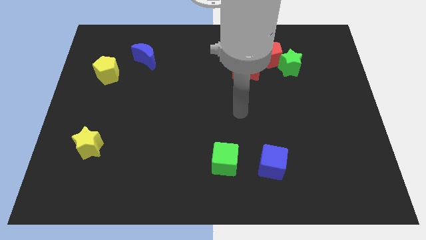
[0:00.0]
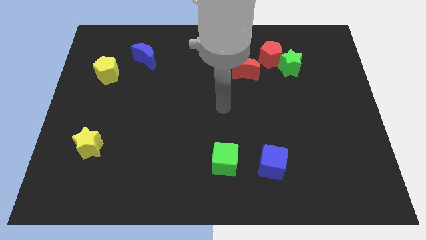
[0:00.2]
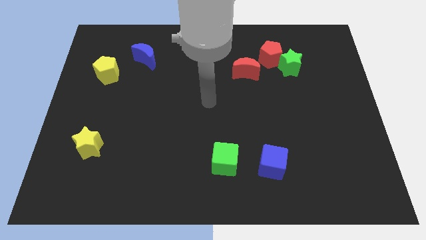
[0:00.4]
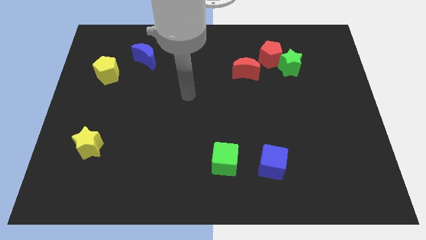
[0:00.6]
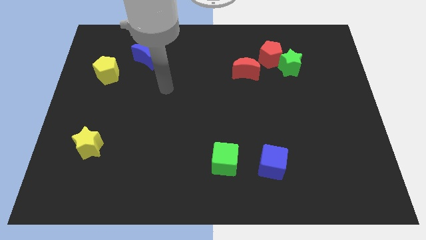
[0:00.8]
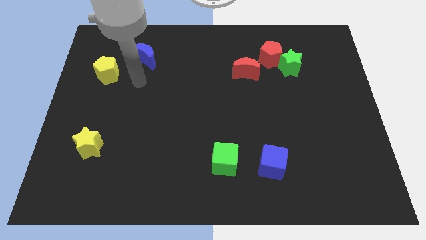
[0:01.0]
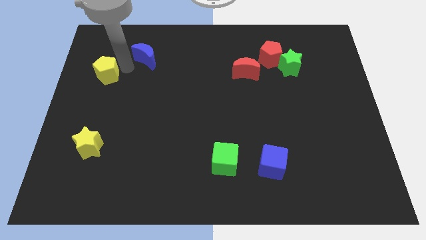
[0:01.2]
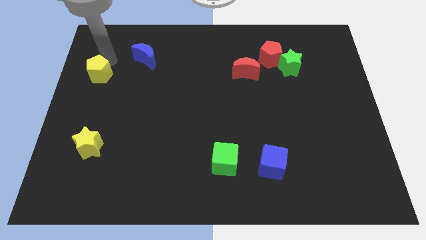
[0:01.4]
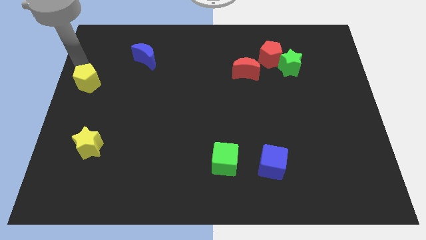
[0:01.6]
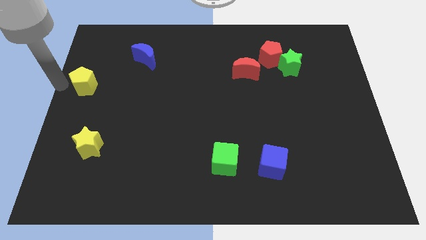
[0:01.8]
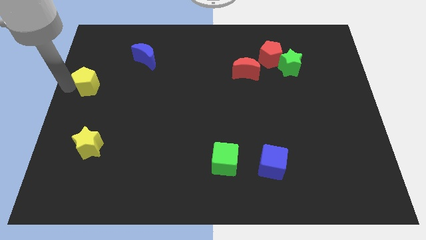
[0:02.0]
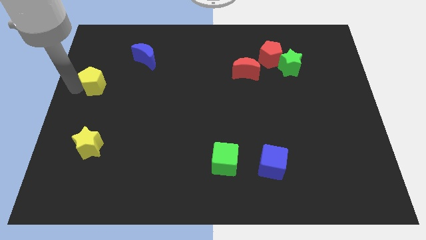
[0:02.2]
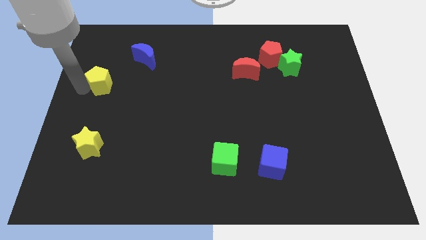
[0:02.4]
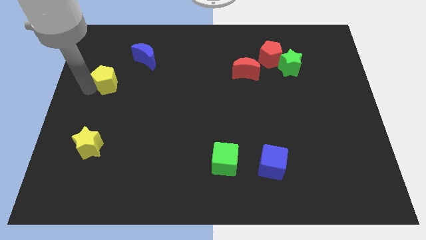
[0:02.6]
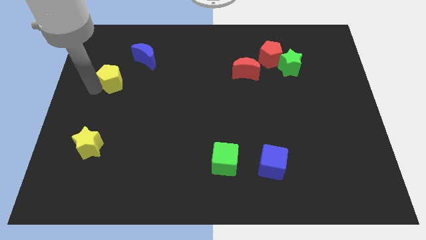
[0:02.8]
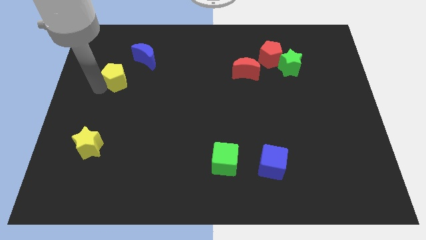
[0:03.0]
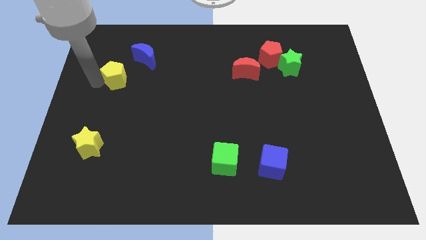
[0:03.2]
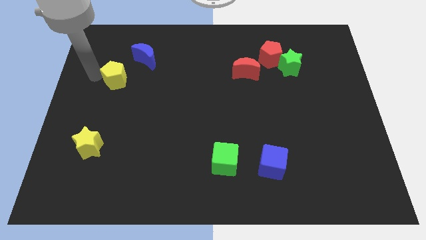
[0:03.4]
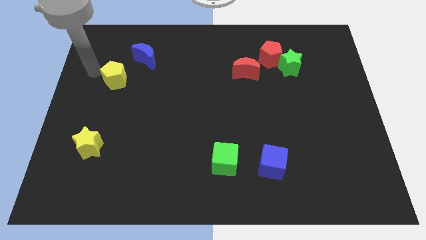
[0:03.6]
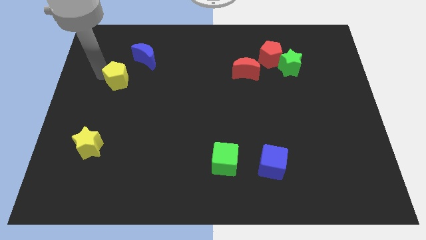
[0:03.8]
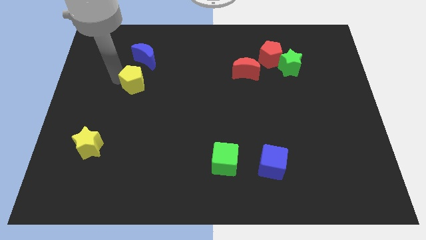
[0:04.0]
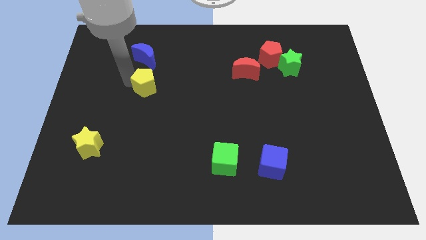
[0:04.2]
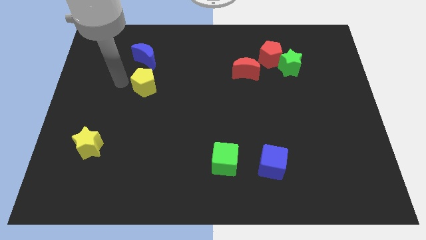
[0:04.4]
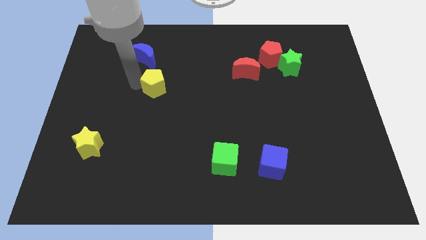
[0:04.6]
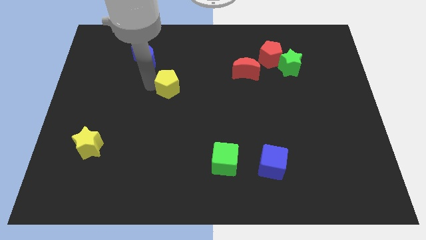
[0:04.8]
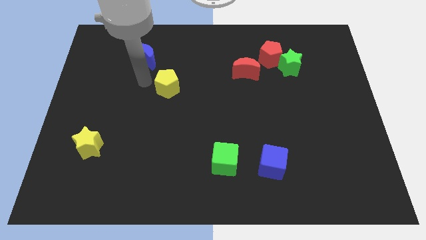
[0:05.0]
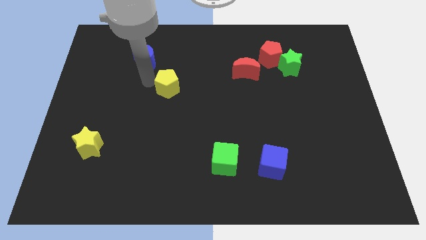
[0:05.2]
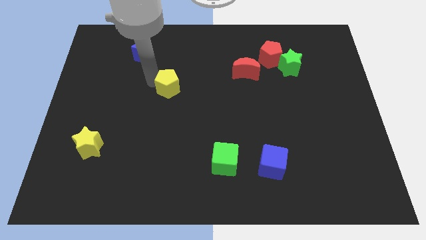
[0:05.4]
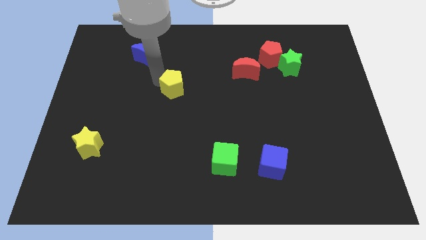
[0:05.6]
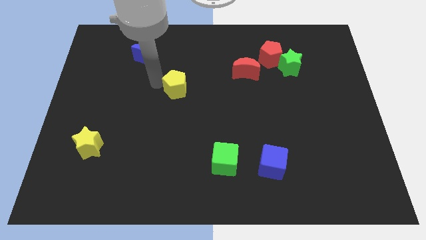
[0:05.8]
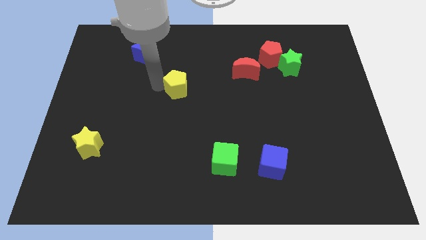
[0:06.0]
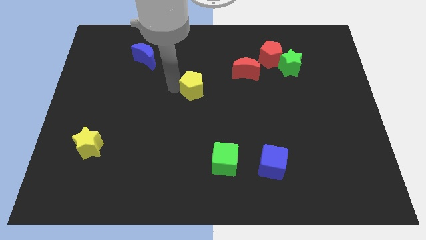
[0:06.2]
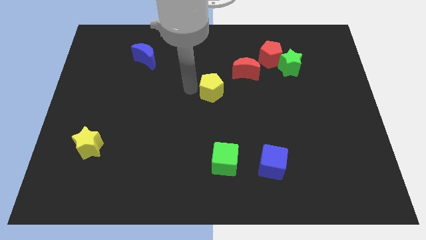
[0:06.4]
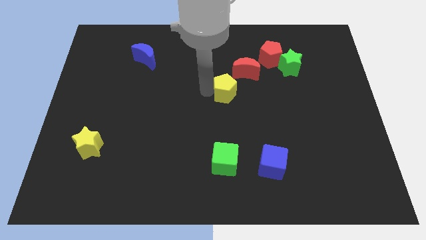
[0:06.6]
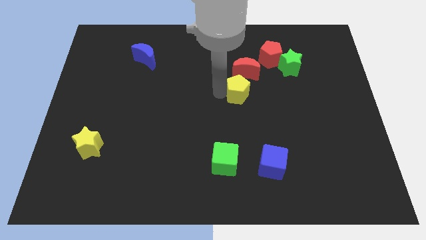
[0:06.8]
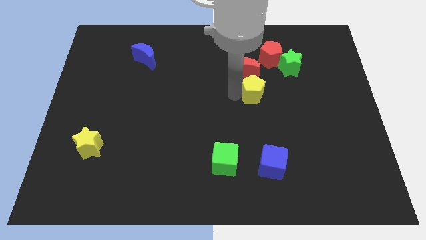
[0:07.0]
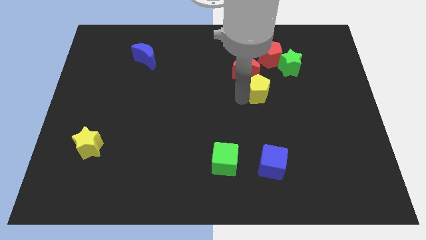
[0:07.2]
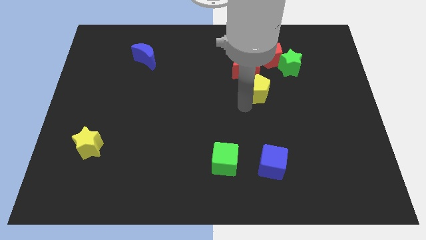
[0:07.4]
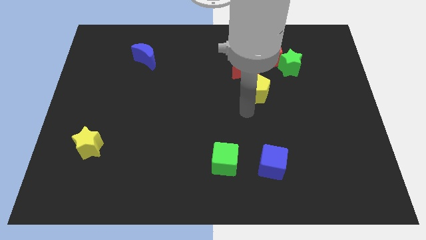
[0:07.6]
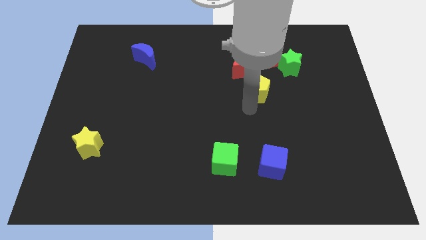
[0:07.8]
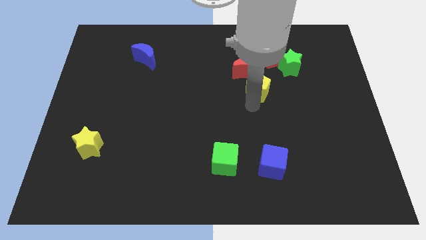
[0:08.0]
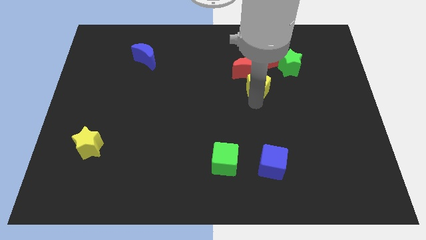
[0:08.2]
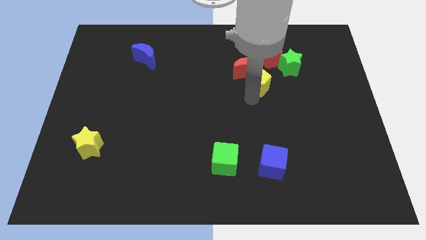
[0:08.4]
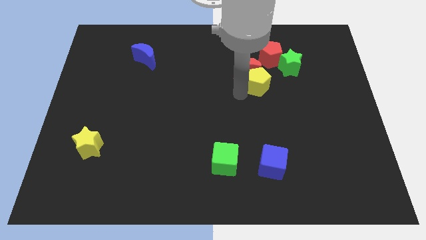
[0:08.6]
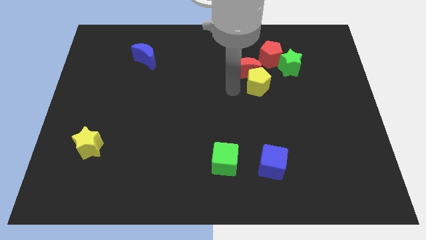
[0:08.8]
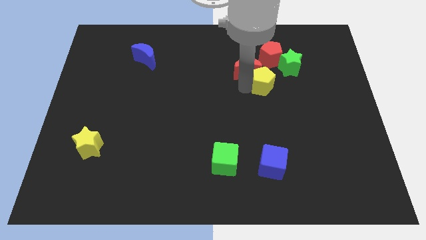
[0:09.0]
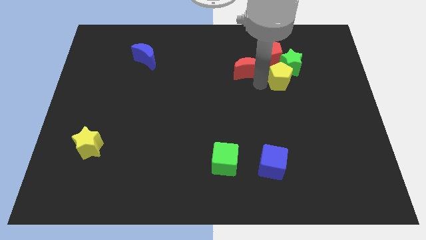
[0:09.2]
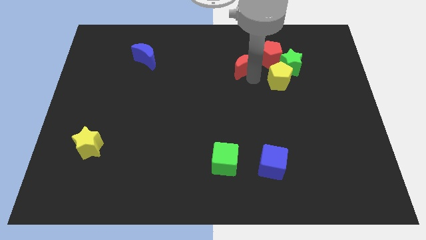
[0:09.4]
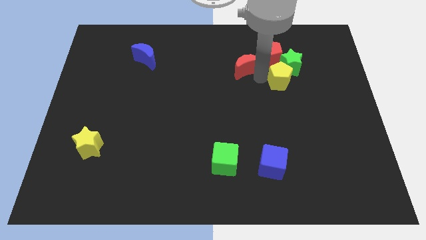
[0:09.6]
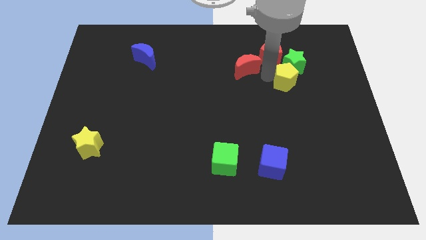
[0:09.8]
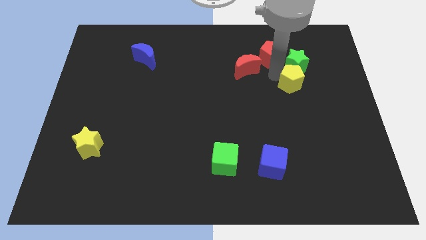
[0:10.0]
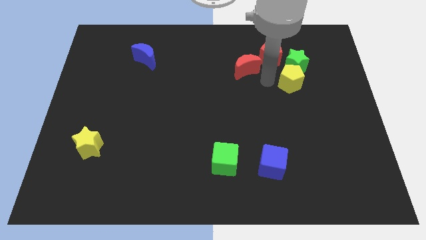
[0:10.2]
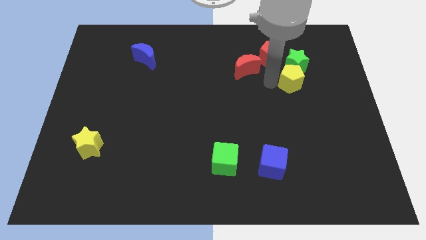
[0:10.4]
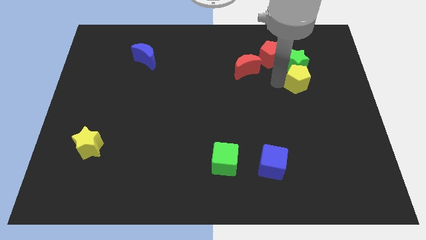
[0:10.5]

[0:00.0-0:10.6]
push the yellow pentagon to the bottom right of the green star

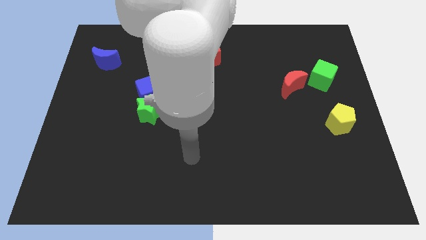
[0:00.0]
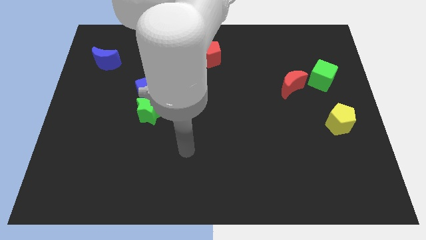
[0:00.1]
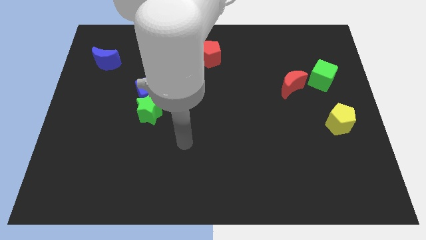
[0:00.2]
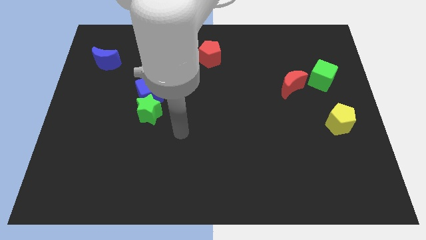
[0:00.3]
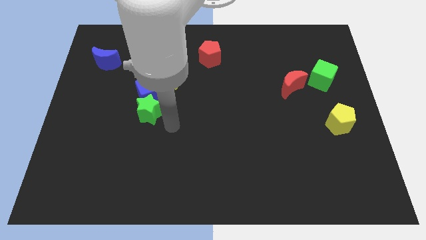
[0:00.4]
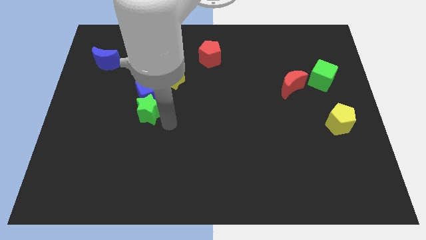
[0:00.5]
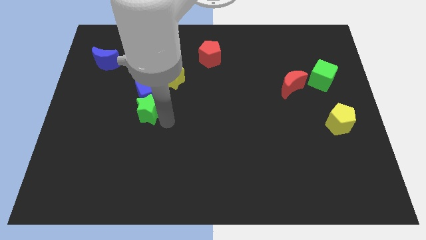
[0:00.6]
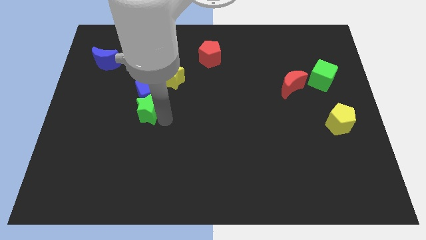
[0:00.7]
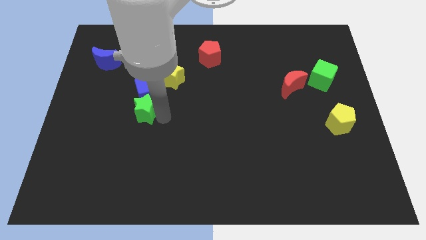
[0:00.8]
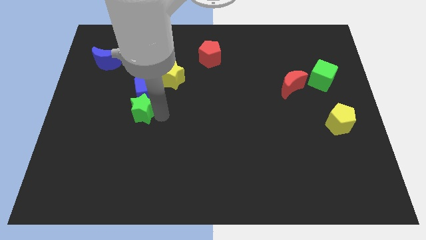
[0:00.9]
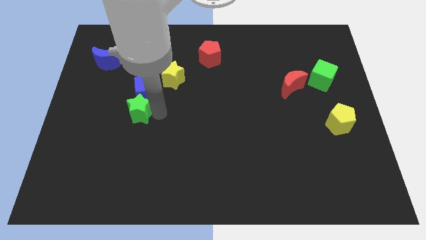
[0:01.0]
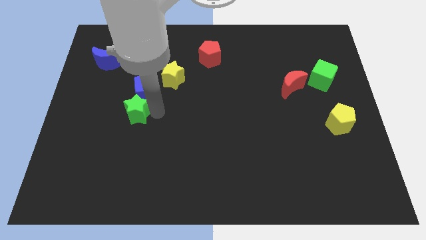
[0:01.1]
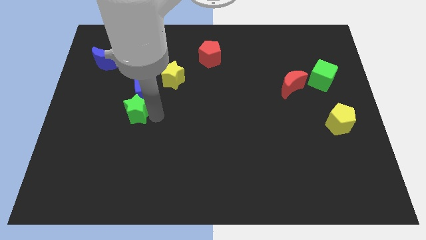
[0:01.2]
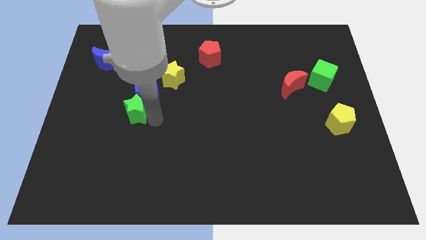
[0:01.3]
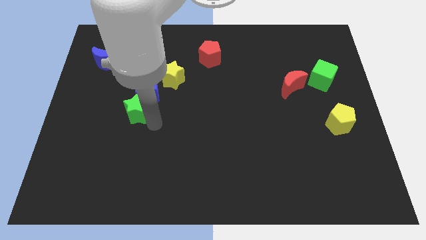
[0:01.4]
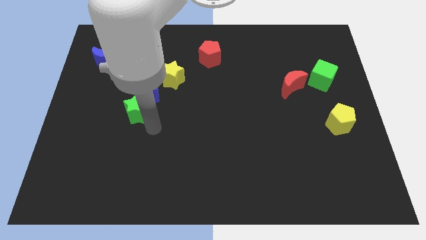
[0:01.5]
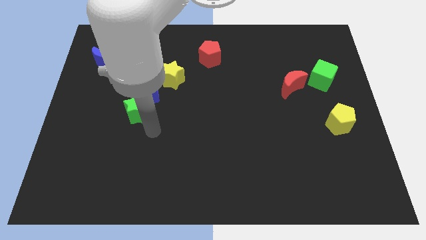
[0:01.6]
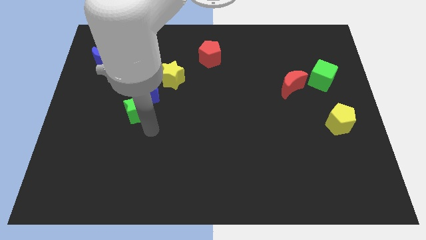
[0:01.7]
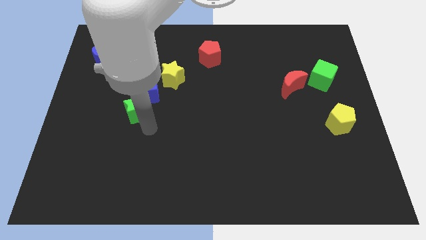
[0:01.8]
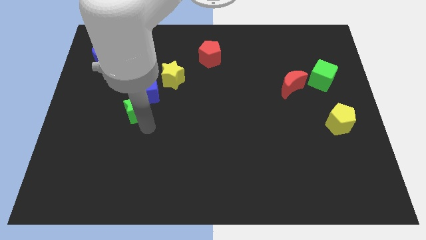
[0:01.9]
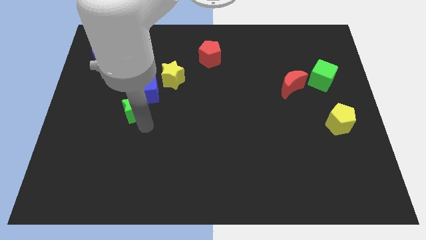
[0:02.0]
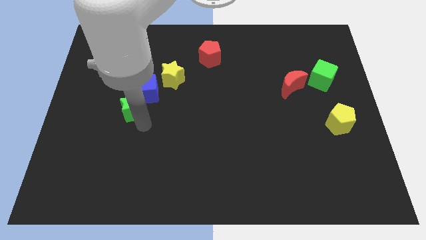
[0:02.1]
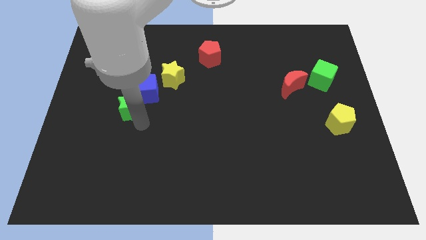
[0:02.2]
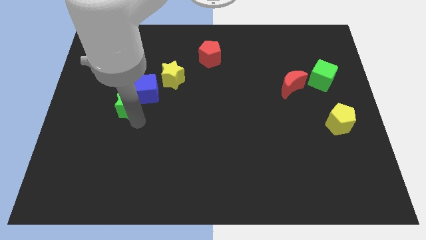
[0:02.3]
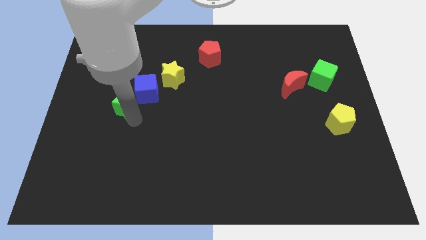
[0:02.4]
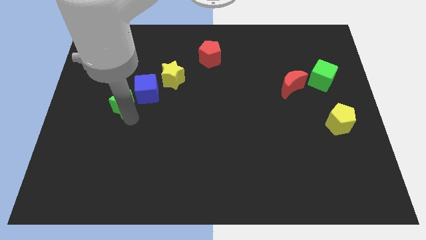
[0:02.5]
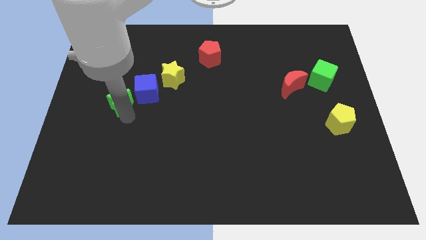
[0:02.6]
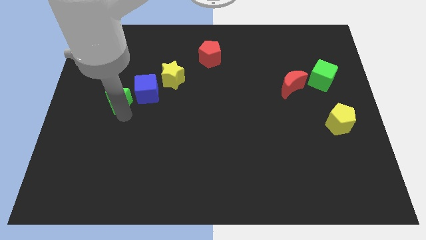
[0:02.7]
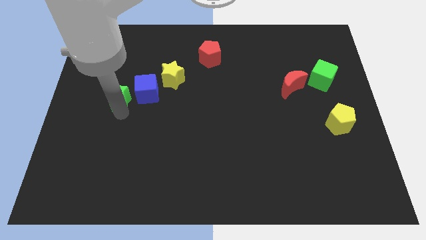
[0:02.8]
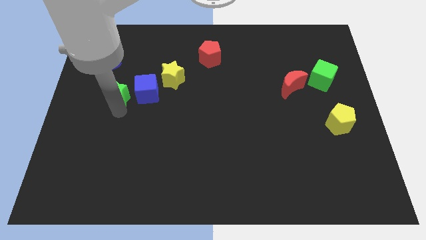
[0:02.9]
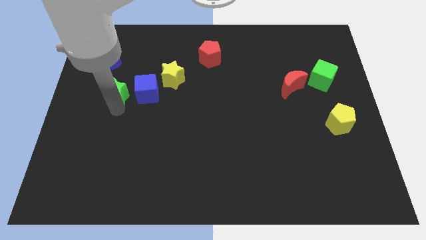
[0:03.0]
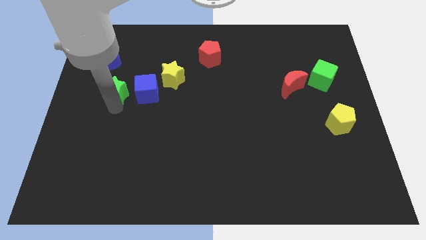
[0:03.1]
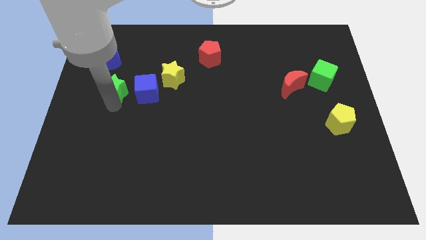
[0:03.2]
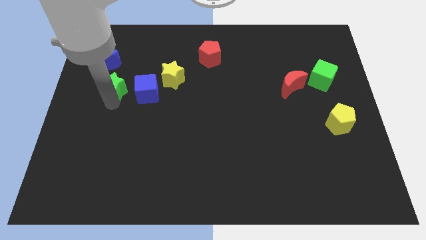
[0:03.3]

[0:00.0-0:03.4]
move the green star to the left side of the yellow star
